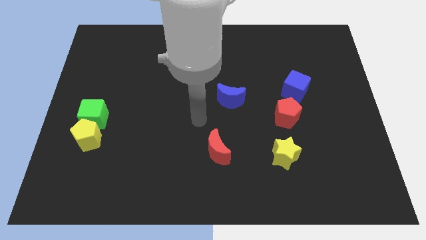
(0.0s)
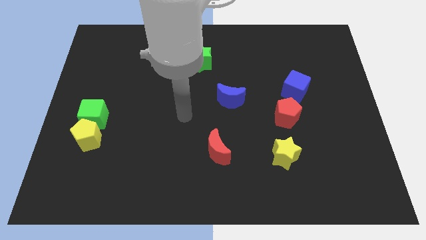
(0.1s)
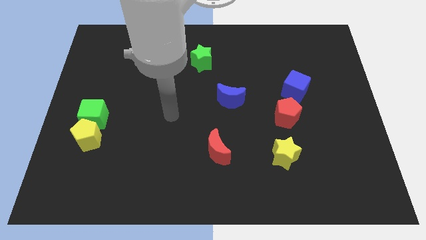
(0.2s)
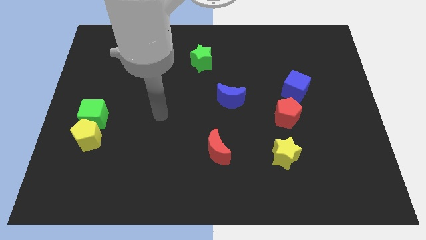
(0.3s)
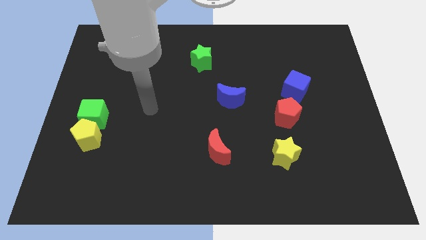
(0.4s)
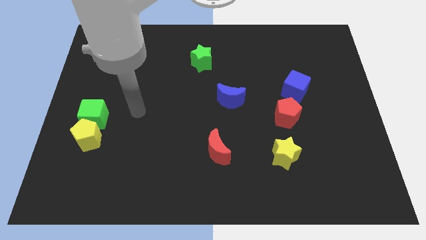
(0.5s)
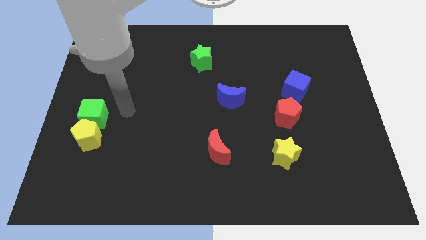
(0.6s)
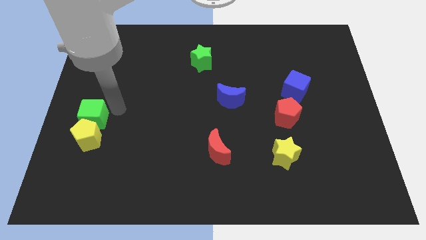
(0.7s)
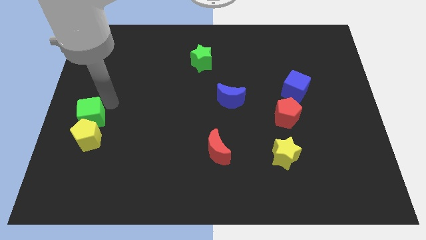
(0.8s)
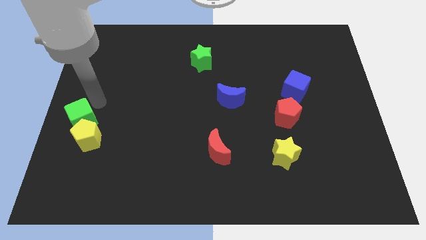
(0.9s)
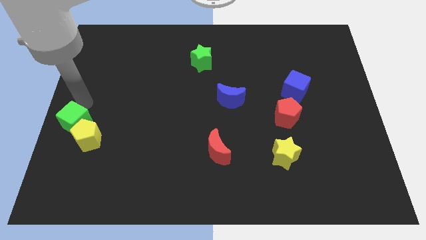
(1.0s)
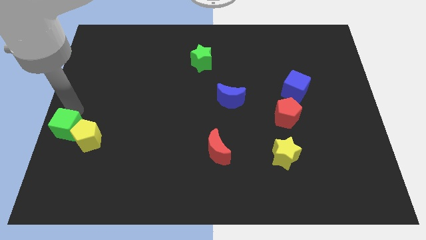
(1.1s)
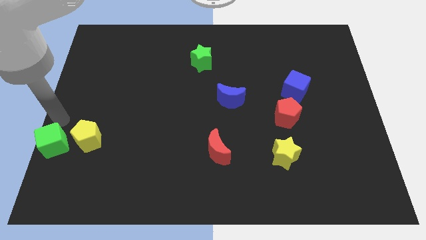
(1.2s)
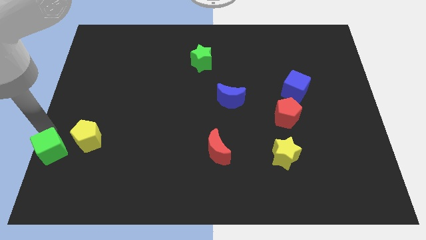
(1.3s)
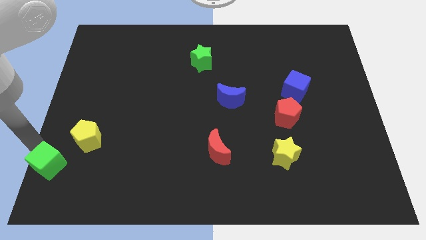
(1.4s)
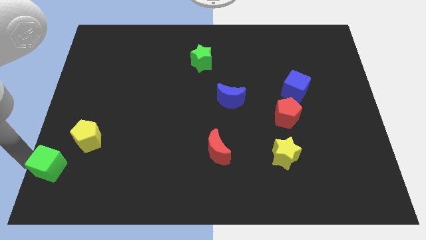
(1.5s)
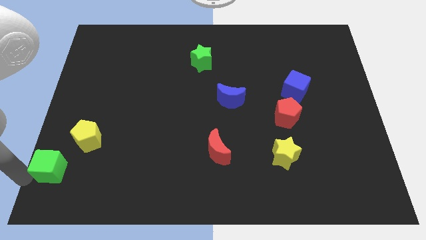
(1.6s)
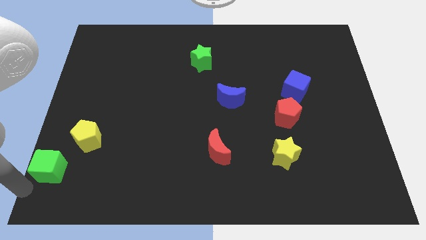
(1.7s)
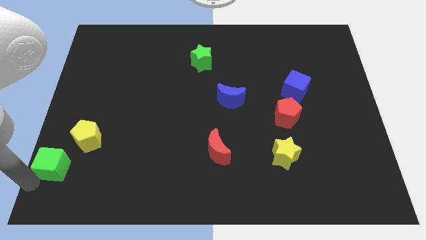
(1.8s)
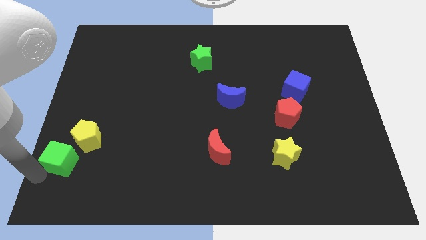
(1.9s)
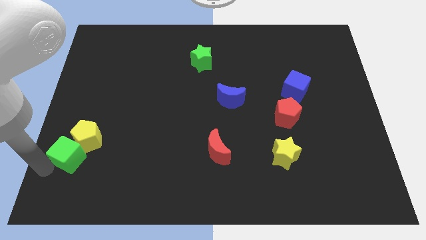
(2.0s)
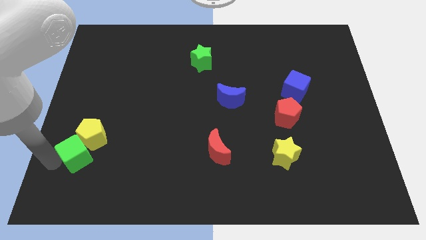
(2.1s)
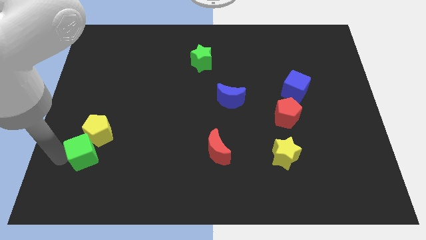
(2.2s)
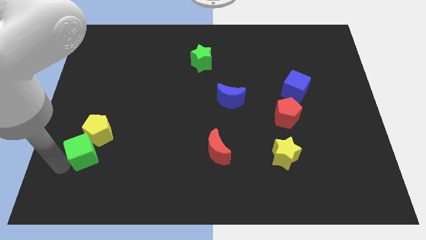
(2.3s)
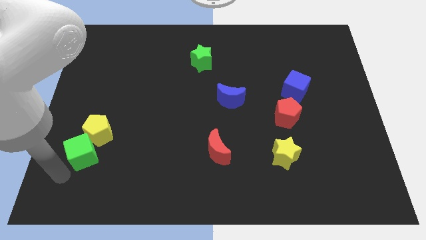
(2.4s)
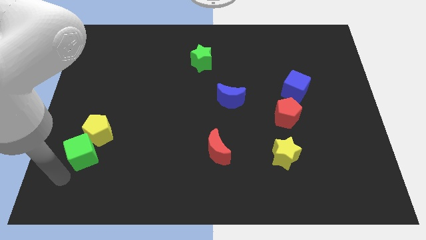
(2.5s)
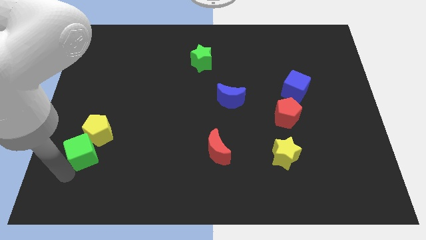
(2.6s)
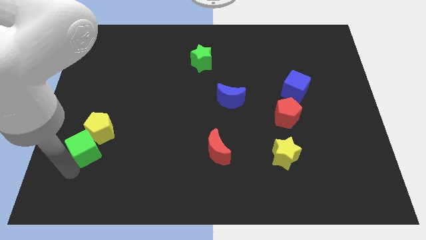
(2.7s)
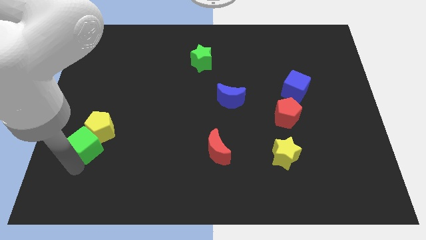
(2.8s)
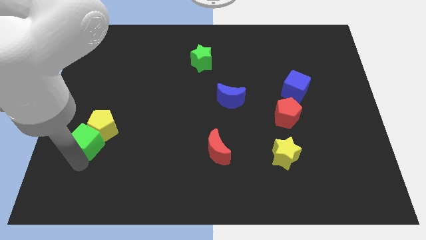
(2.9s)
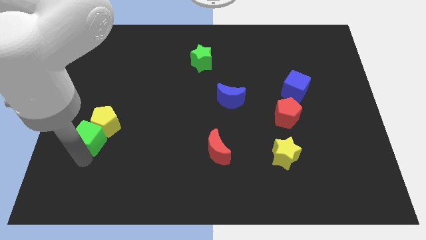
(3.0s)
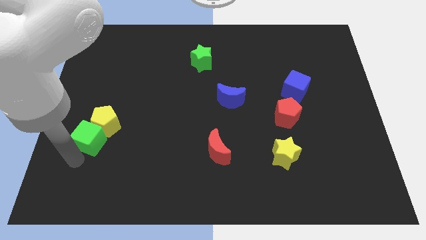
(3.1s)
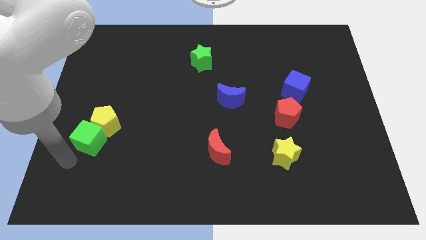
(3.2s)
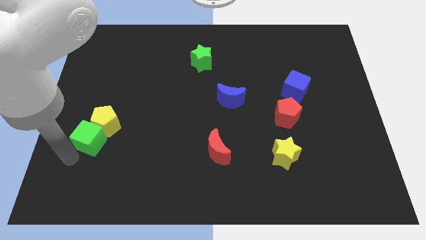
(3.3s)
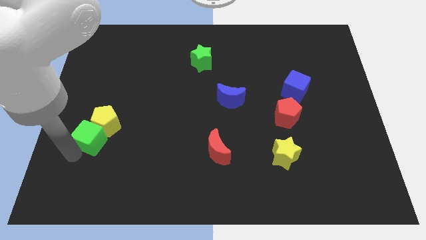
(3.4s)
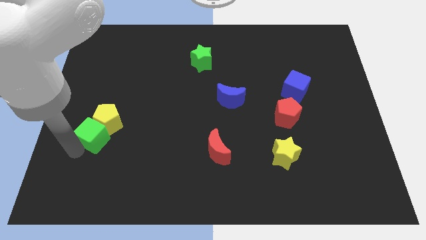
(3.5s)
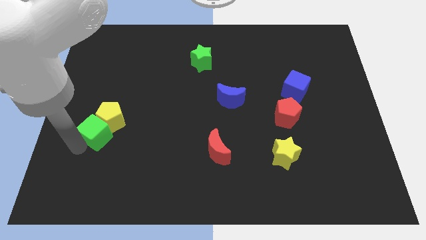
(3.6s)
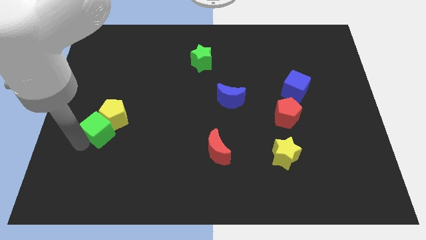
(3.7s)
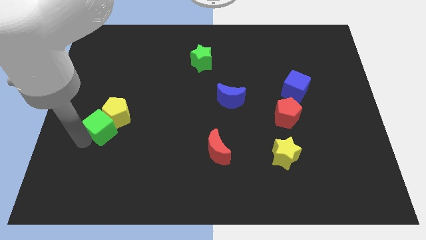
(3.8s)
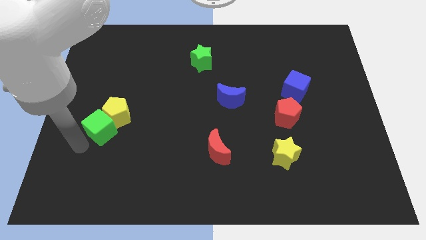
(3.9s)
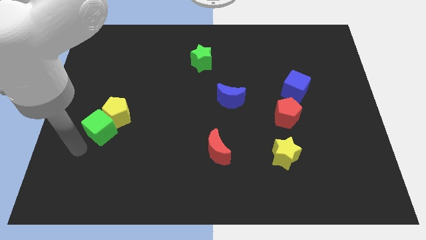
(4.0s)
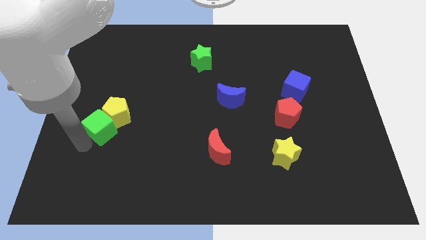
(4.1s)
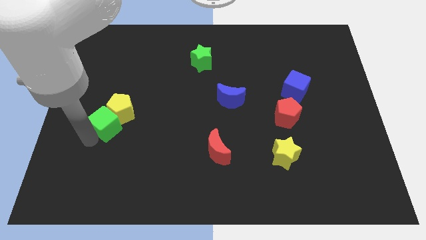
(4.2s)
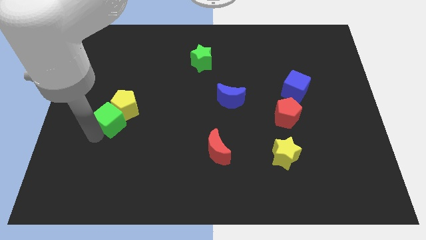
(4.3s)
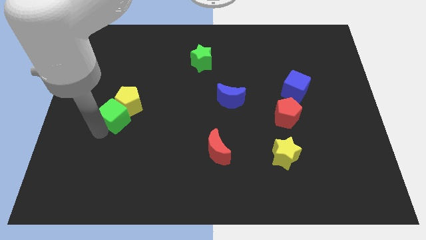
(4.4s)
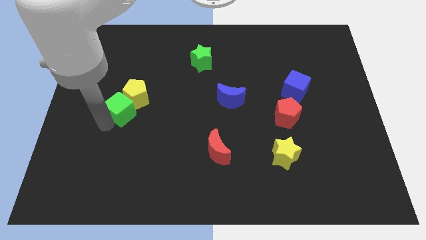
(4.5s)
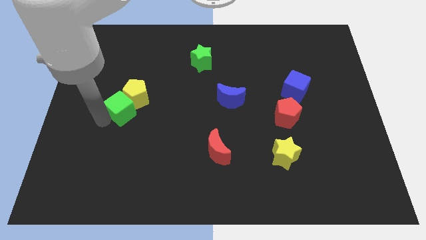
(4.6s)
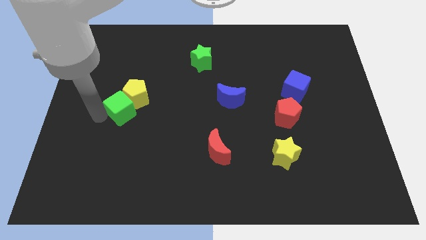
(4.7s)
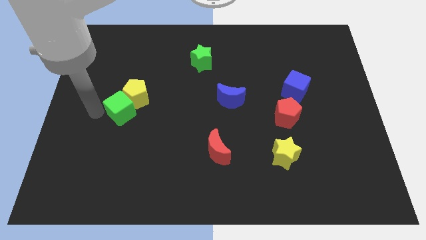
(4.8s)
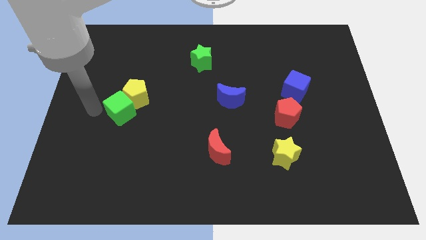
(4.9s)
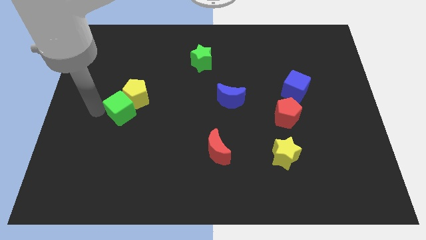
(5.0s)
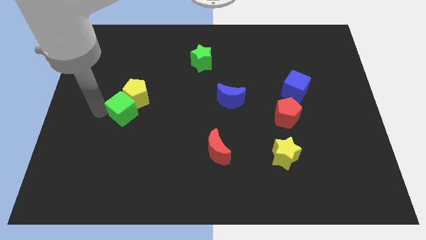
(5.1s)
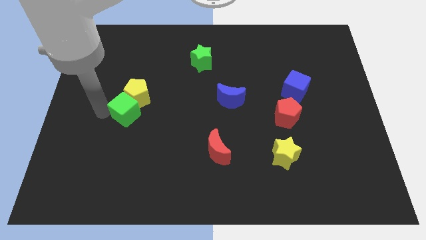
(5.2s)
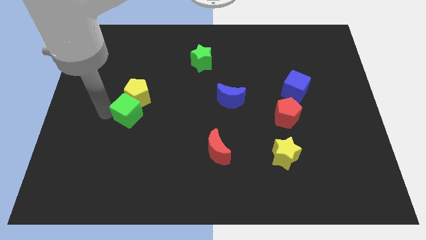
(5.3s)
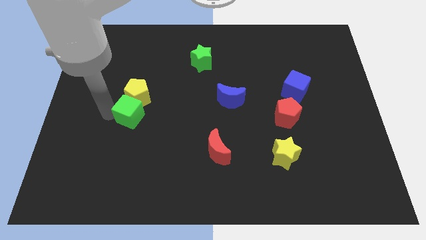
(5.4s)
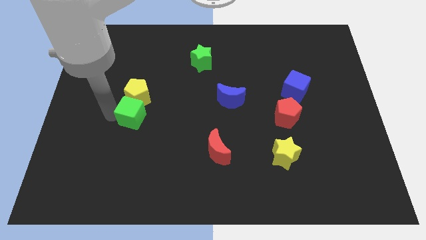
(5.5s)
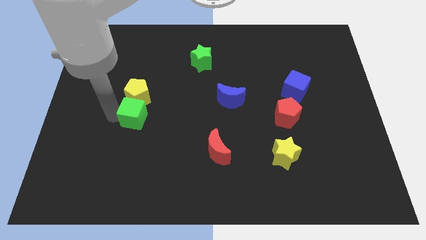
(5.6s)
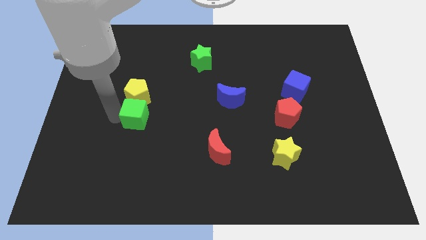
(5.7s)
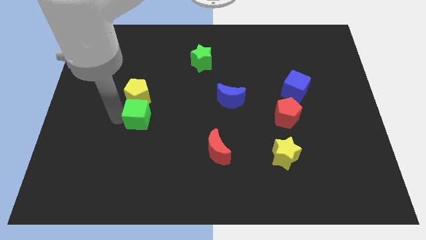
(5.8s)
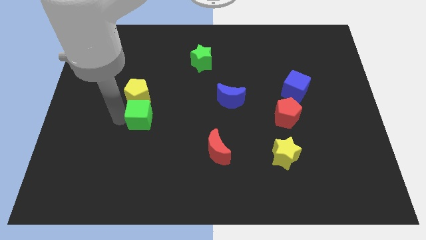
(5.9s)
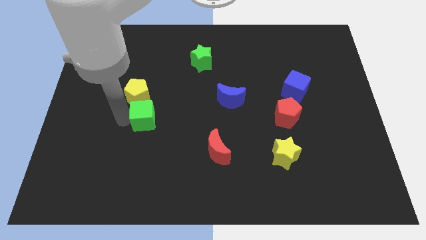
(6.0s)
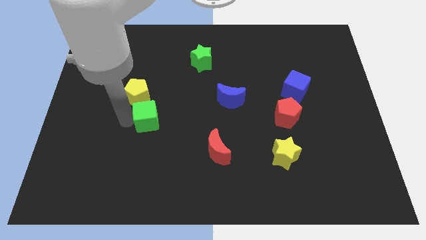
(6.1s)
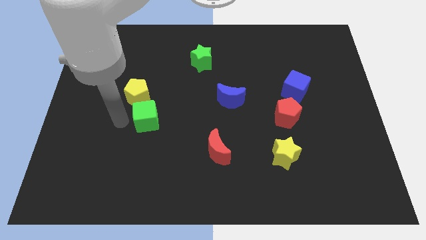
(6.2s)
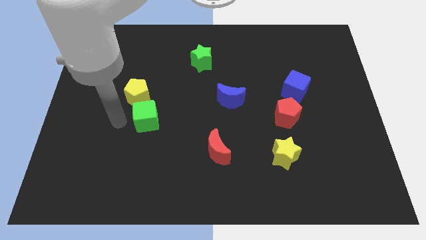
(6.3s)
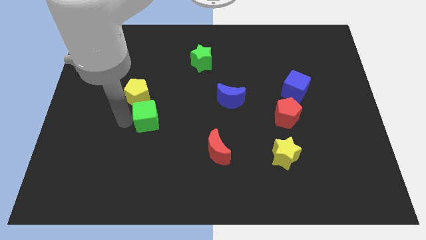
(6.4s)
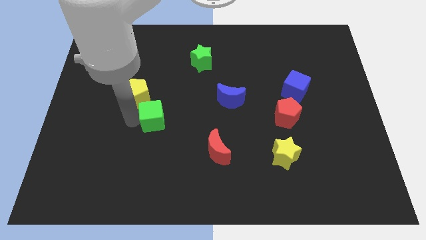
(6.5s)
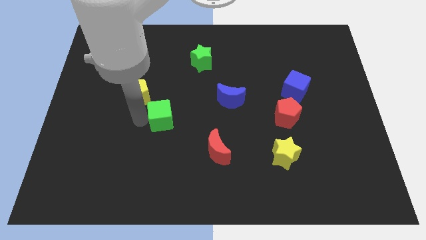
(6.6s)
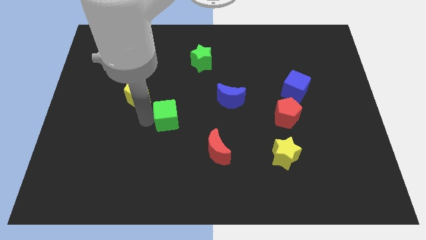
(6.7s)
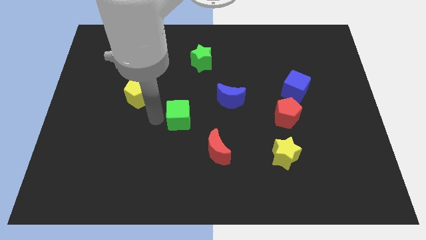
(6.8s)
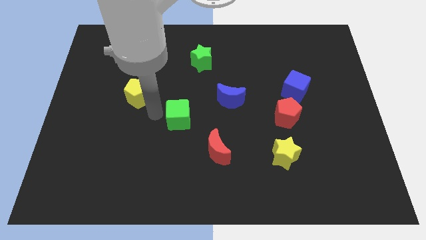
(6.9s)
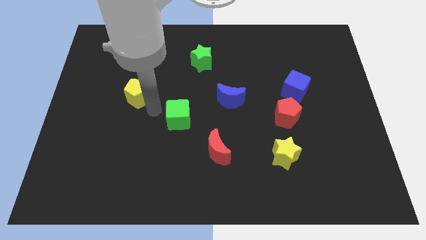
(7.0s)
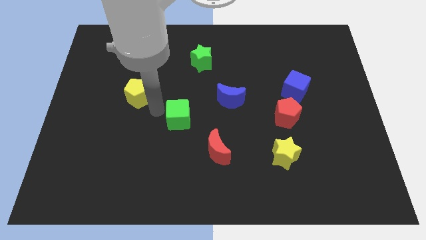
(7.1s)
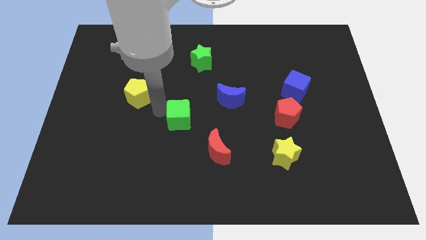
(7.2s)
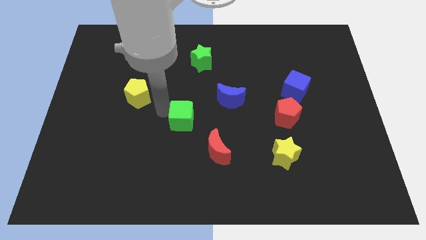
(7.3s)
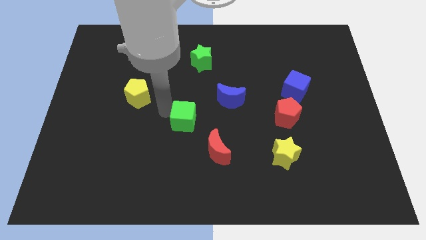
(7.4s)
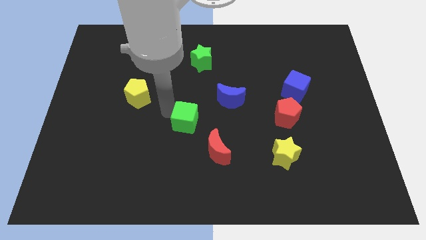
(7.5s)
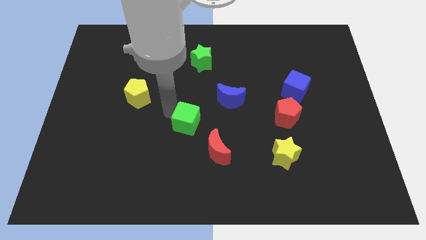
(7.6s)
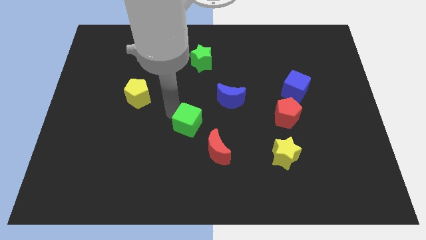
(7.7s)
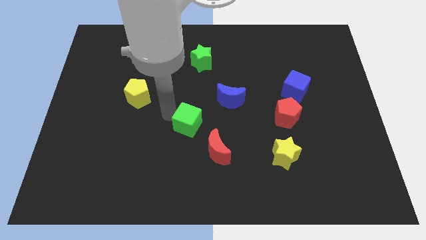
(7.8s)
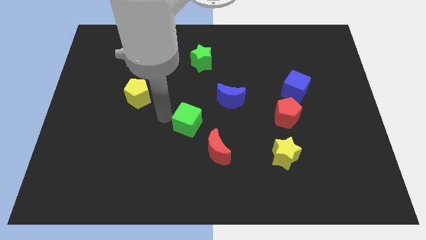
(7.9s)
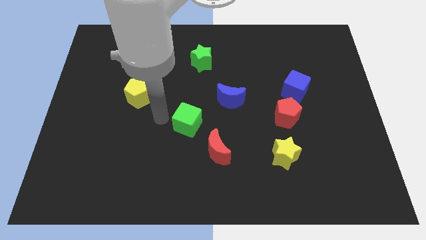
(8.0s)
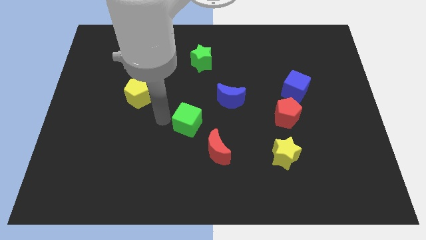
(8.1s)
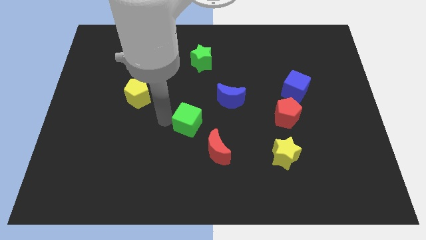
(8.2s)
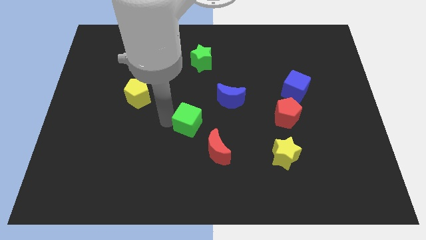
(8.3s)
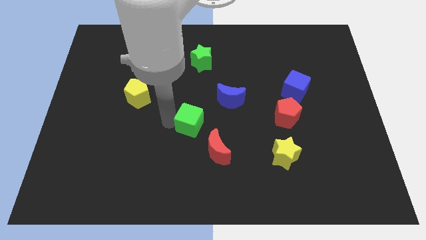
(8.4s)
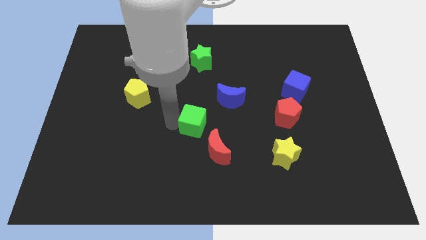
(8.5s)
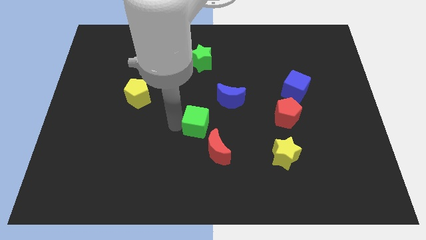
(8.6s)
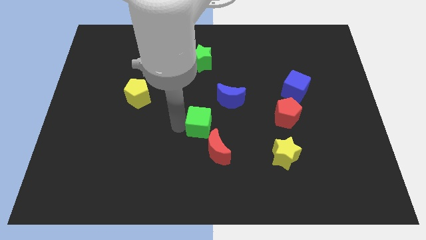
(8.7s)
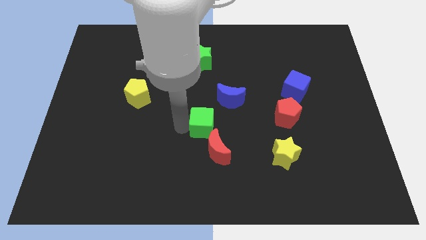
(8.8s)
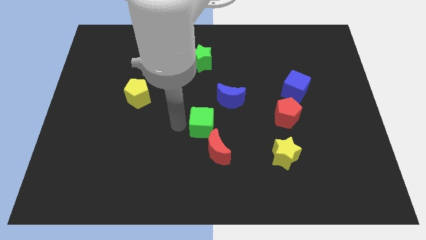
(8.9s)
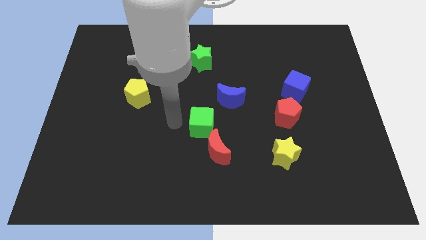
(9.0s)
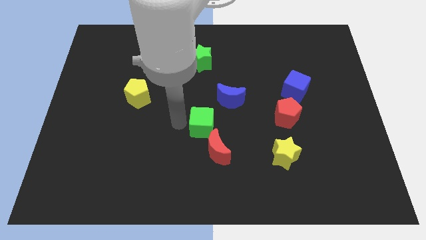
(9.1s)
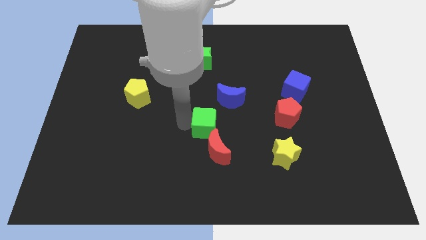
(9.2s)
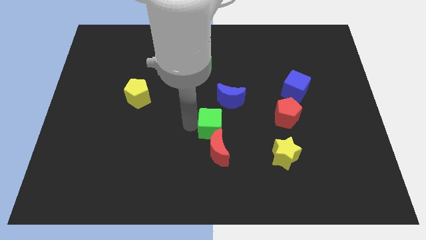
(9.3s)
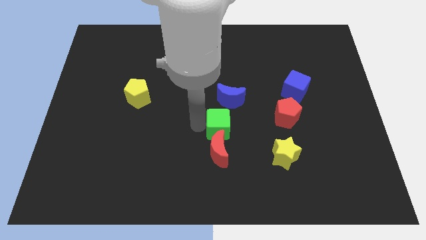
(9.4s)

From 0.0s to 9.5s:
put the green cube diagonally up and to the right of the red moon
